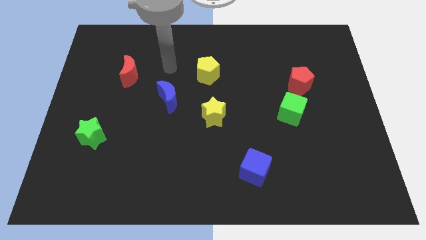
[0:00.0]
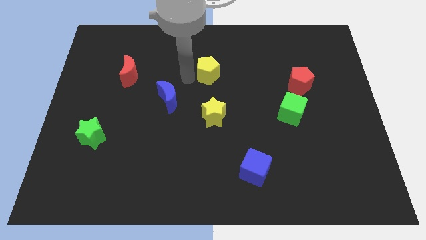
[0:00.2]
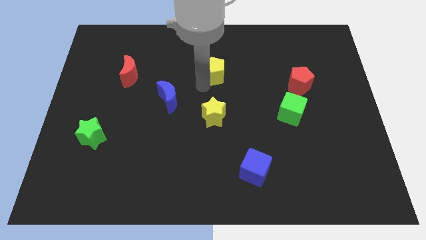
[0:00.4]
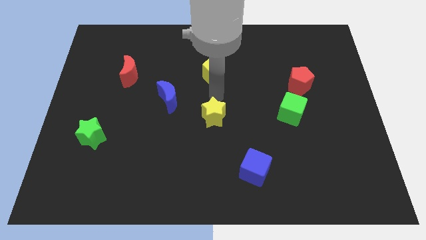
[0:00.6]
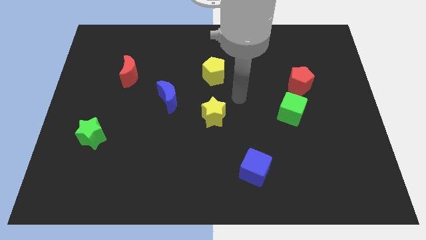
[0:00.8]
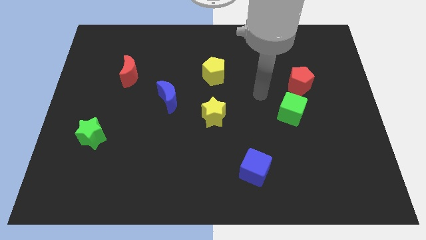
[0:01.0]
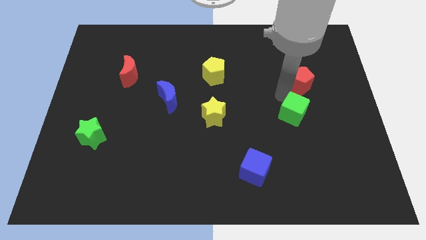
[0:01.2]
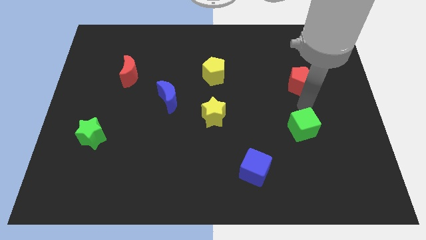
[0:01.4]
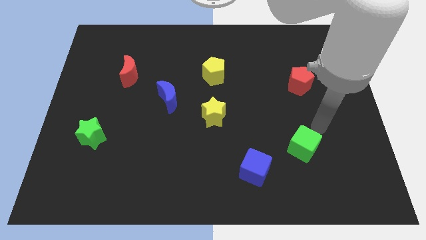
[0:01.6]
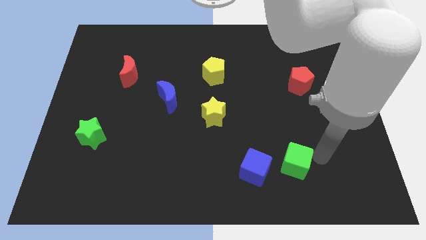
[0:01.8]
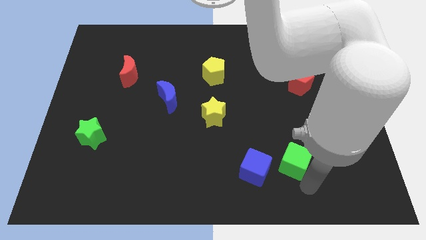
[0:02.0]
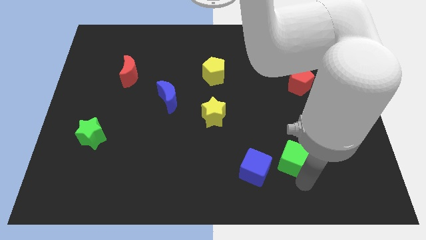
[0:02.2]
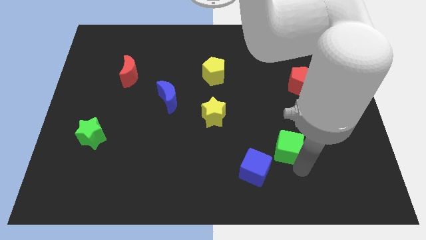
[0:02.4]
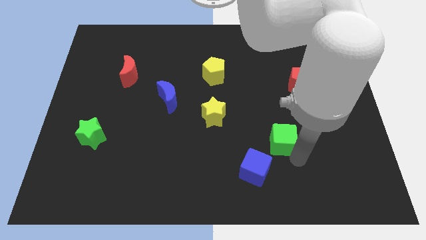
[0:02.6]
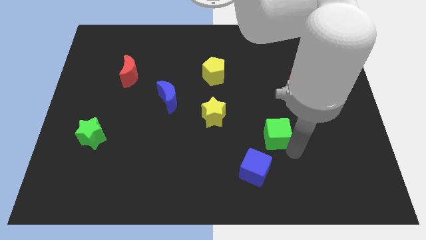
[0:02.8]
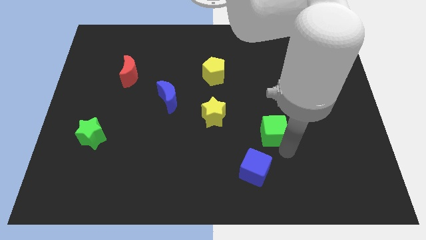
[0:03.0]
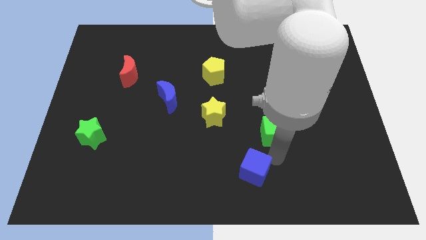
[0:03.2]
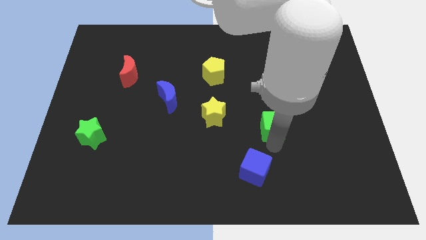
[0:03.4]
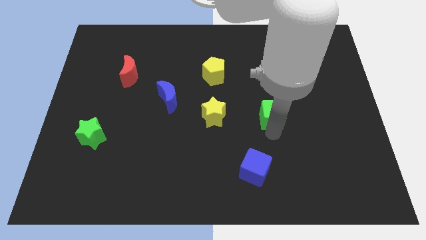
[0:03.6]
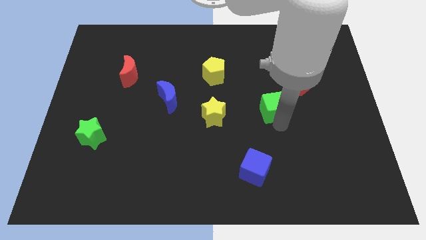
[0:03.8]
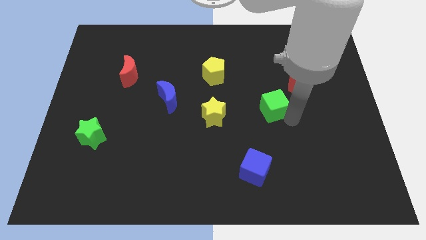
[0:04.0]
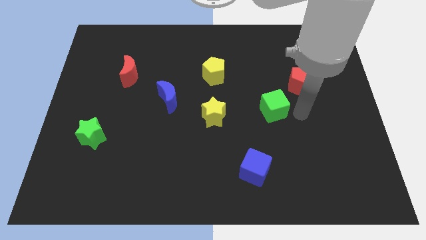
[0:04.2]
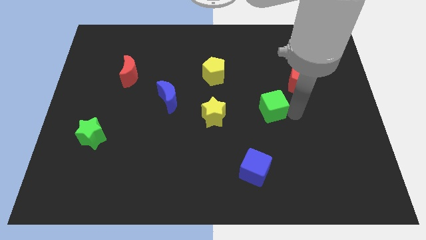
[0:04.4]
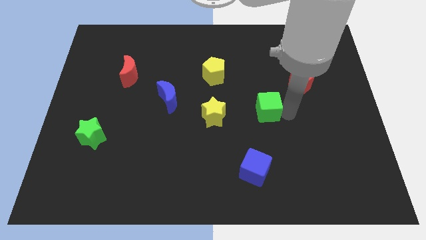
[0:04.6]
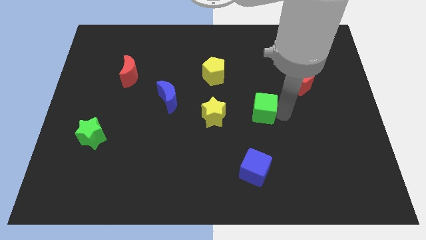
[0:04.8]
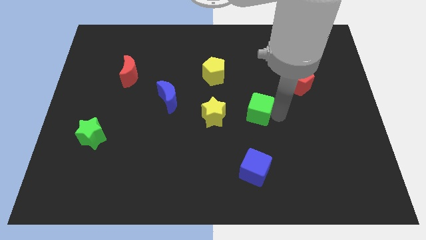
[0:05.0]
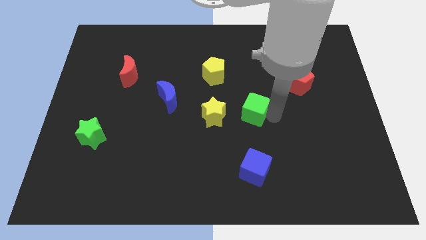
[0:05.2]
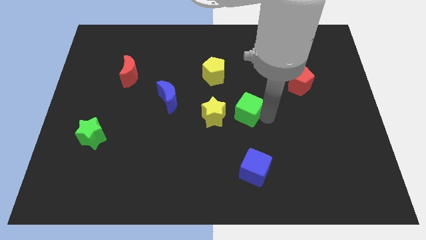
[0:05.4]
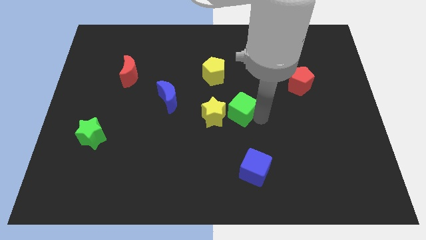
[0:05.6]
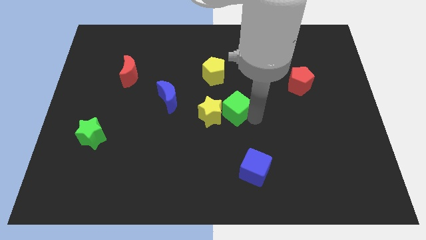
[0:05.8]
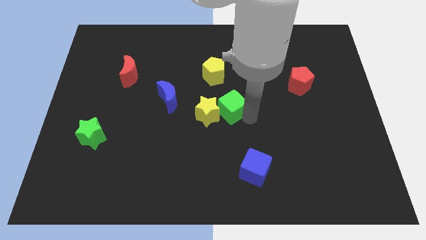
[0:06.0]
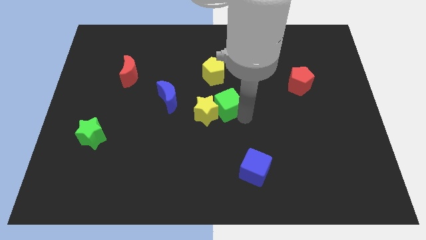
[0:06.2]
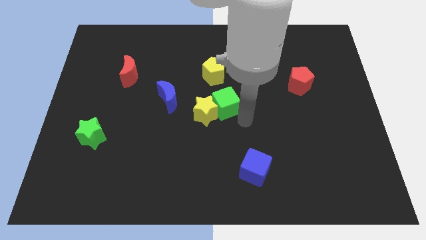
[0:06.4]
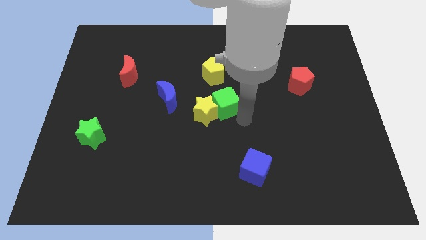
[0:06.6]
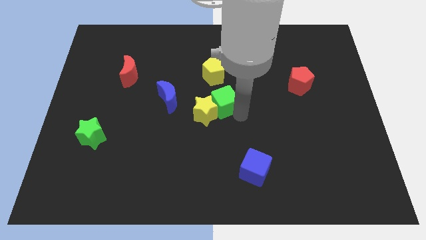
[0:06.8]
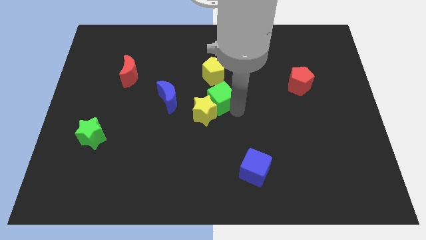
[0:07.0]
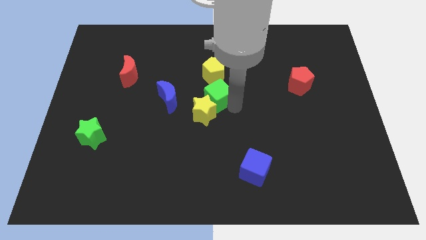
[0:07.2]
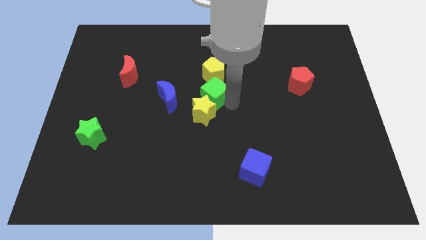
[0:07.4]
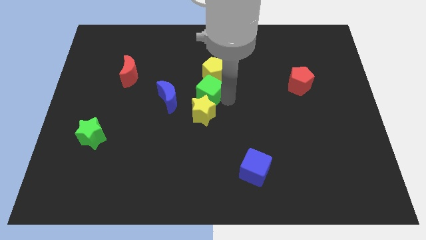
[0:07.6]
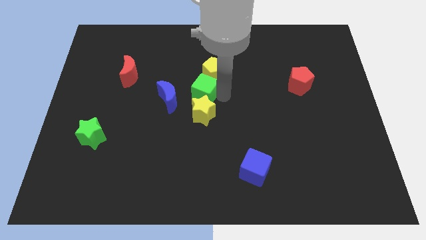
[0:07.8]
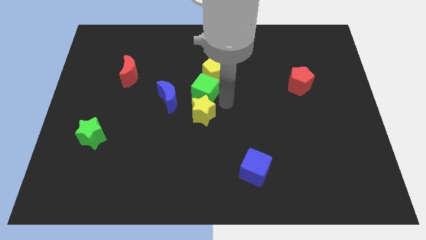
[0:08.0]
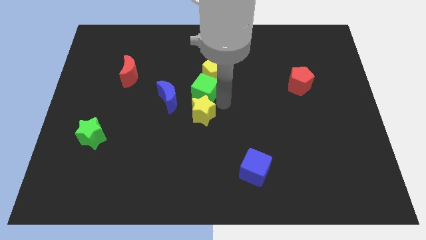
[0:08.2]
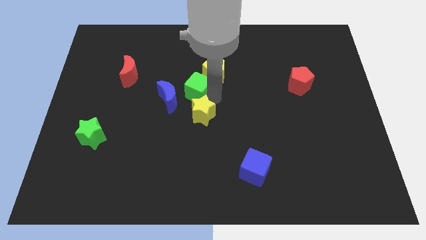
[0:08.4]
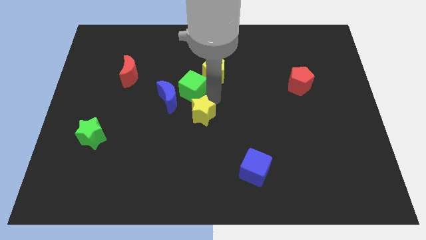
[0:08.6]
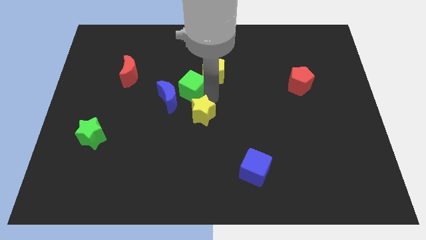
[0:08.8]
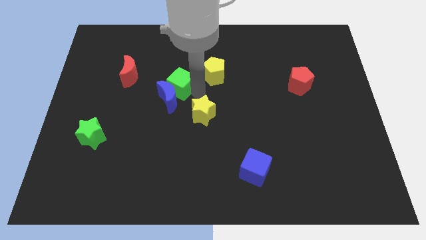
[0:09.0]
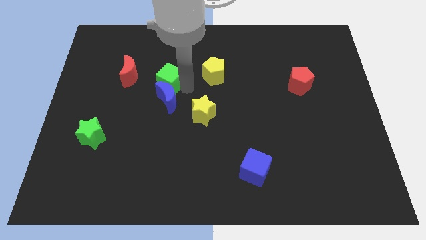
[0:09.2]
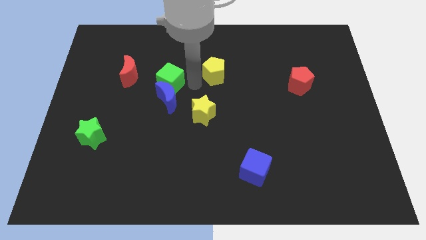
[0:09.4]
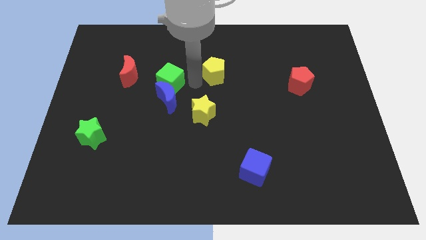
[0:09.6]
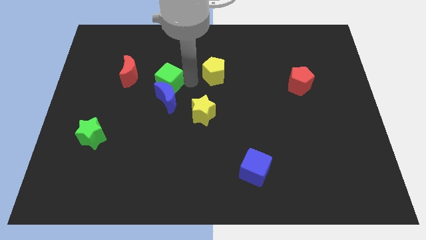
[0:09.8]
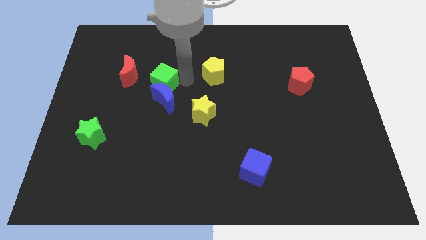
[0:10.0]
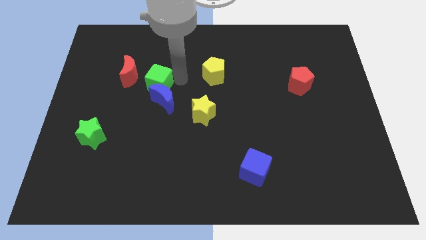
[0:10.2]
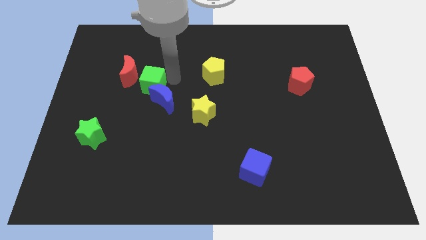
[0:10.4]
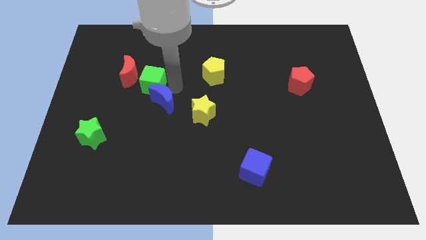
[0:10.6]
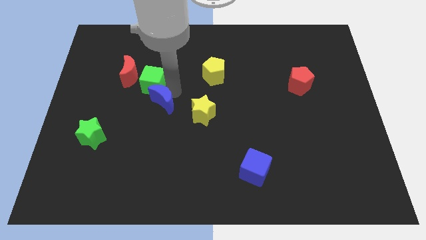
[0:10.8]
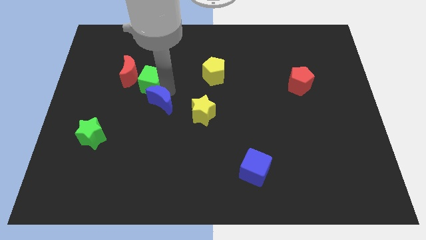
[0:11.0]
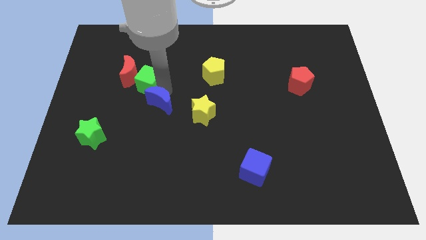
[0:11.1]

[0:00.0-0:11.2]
put the green cube towards the red moon

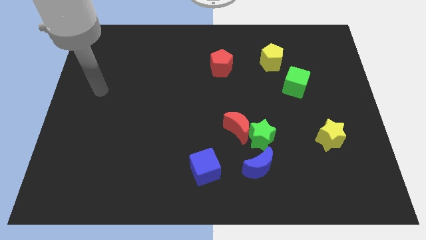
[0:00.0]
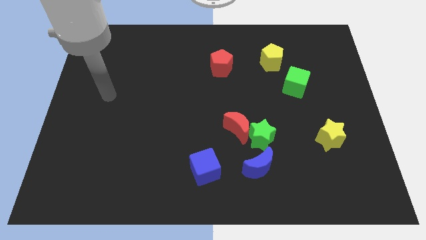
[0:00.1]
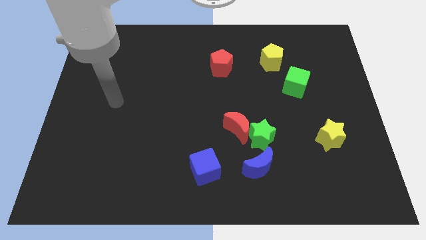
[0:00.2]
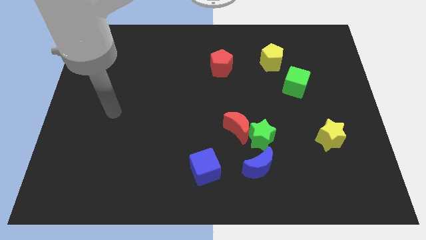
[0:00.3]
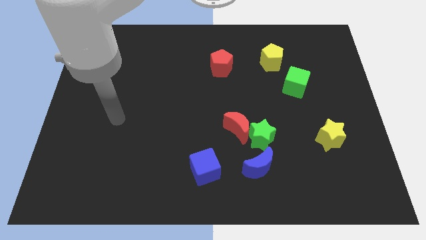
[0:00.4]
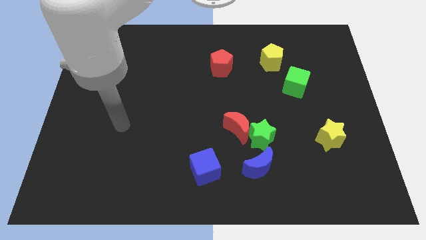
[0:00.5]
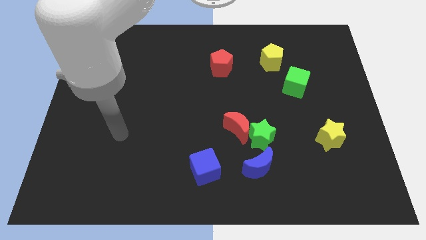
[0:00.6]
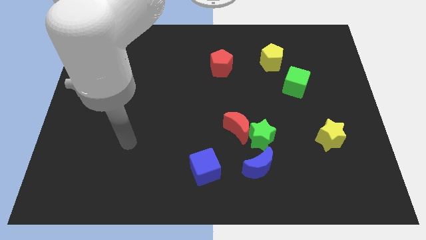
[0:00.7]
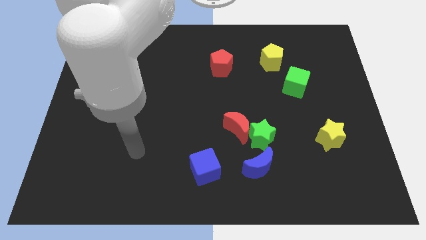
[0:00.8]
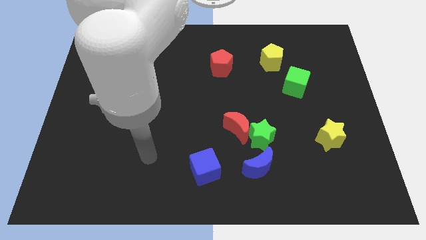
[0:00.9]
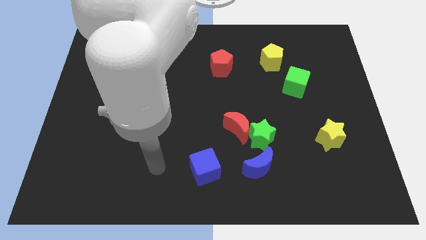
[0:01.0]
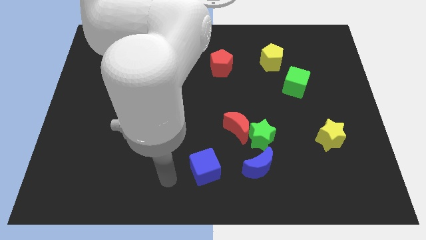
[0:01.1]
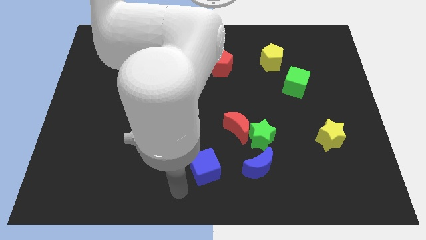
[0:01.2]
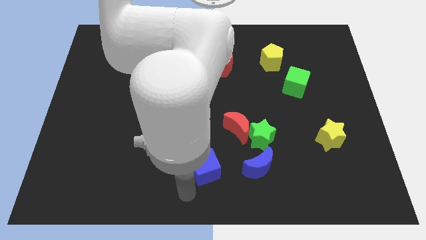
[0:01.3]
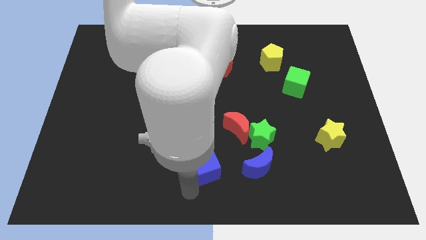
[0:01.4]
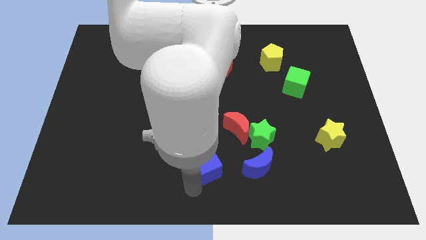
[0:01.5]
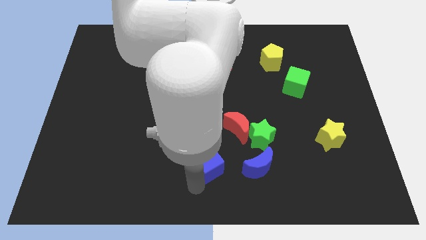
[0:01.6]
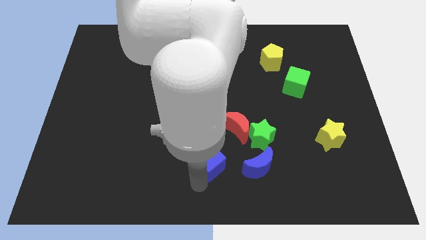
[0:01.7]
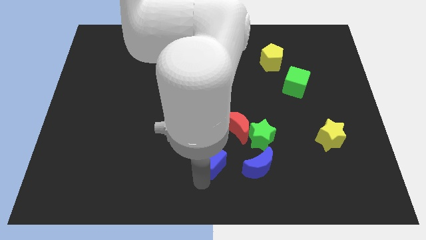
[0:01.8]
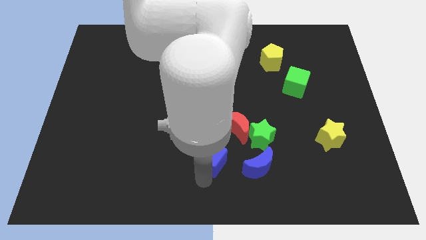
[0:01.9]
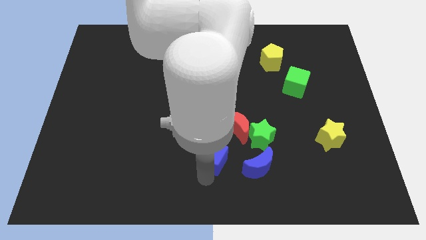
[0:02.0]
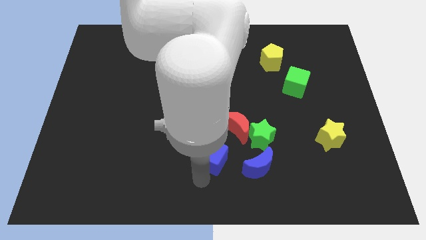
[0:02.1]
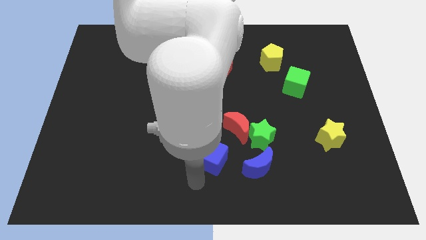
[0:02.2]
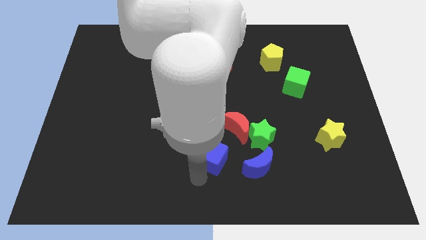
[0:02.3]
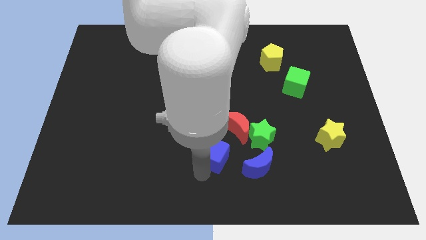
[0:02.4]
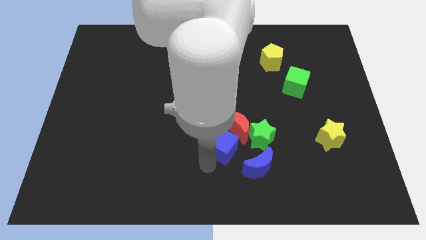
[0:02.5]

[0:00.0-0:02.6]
move the blue cube next to the red moon
